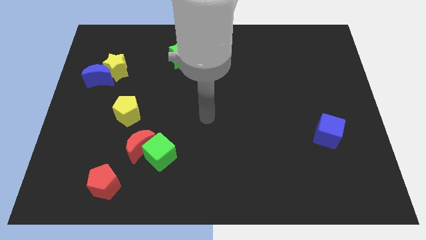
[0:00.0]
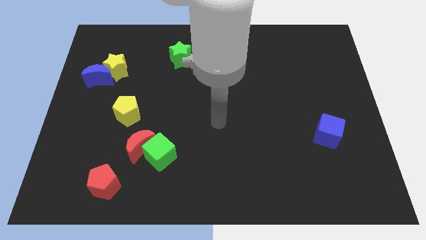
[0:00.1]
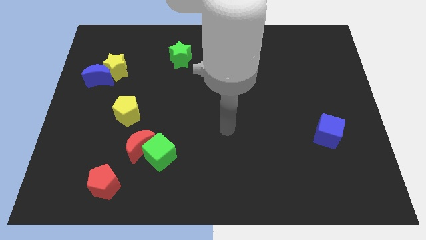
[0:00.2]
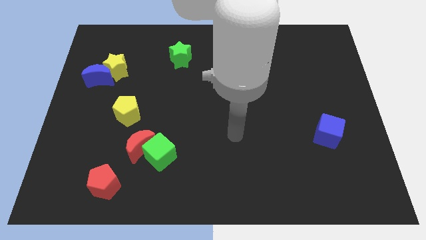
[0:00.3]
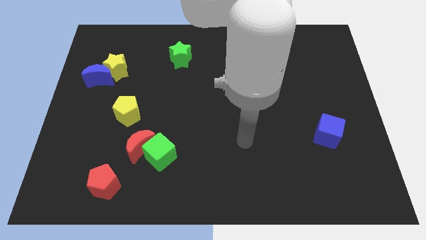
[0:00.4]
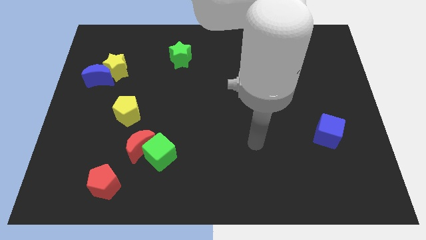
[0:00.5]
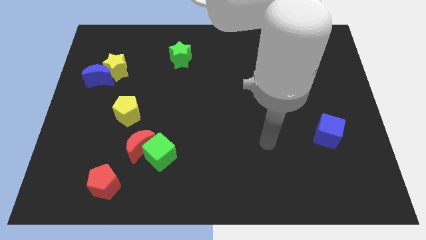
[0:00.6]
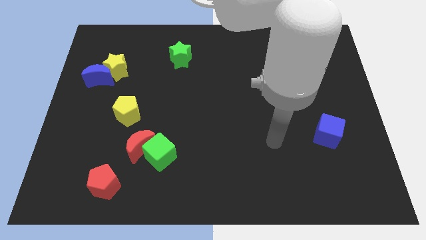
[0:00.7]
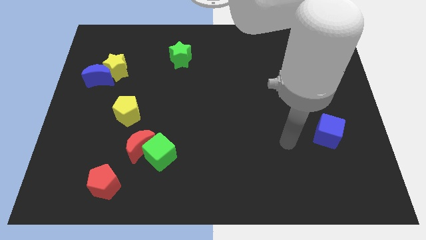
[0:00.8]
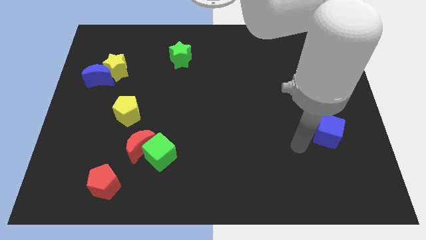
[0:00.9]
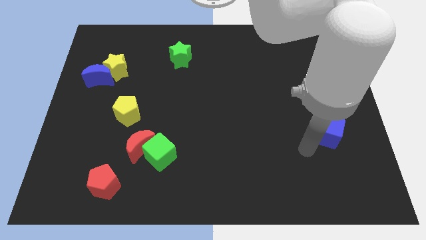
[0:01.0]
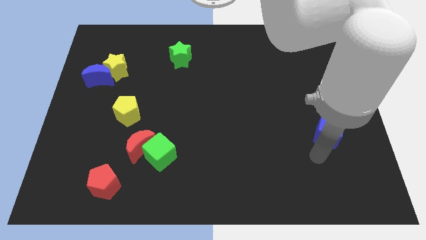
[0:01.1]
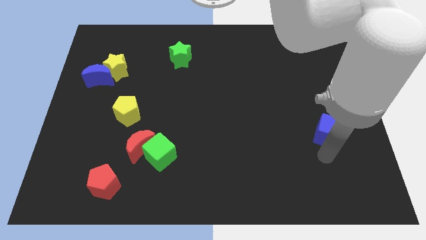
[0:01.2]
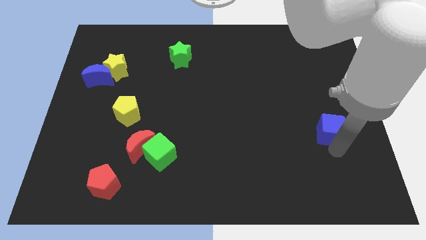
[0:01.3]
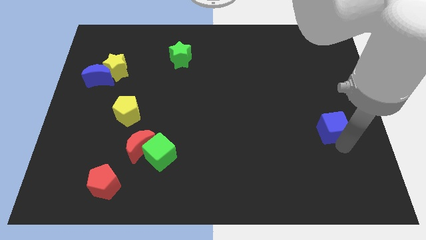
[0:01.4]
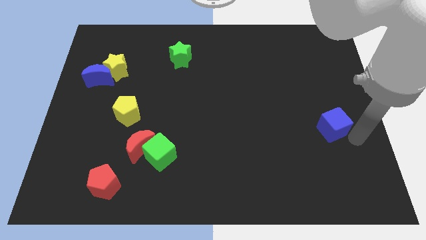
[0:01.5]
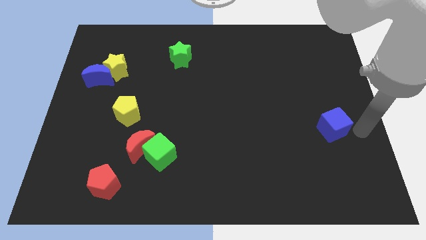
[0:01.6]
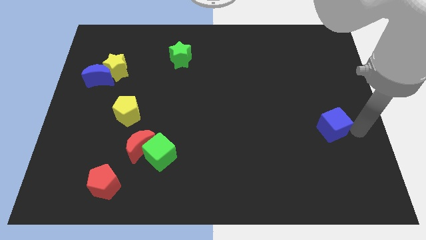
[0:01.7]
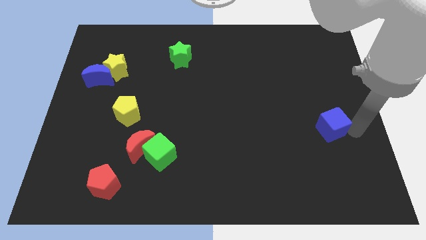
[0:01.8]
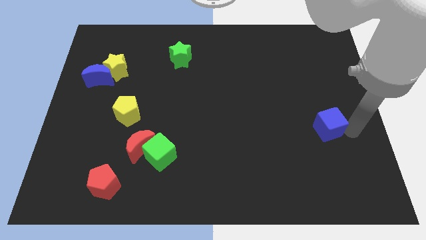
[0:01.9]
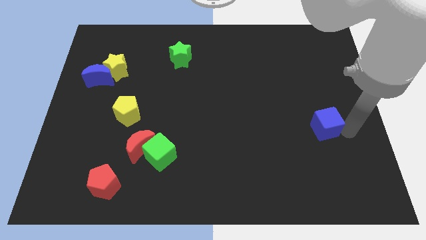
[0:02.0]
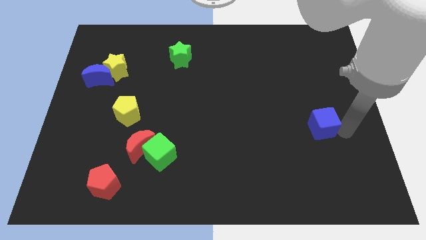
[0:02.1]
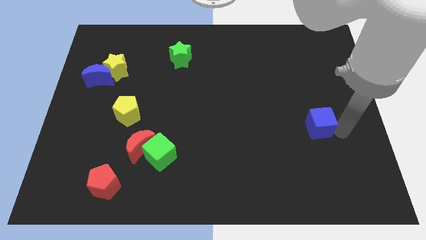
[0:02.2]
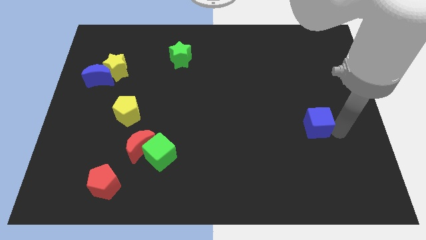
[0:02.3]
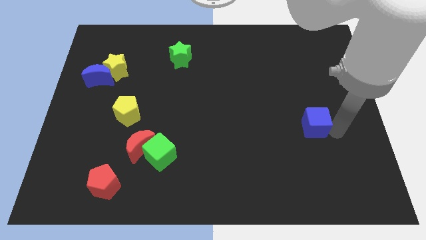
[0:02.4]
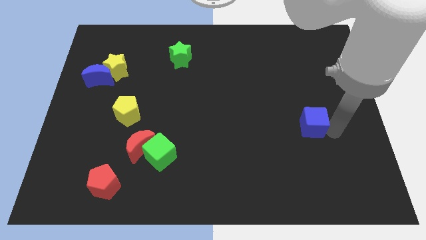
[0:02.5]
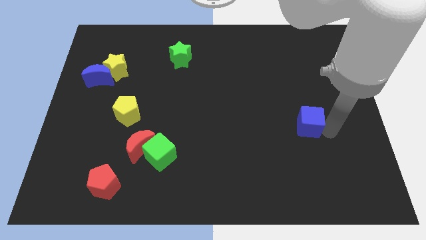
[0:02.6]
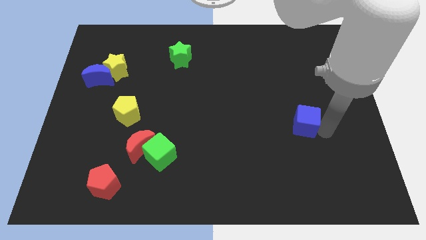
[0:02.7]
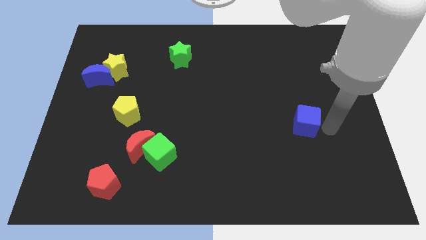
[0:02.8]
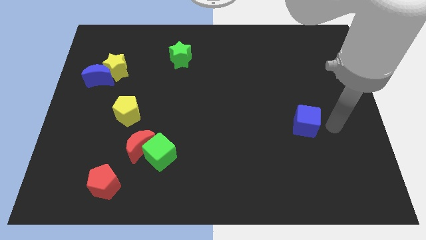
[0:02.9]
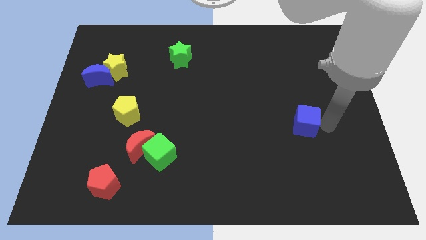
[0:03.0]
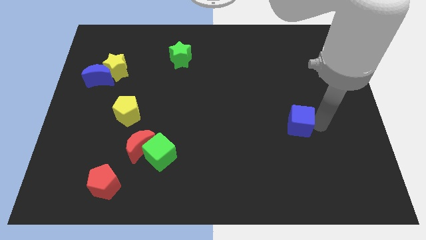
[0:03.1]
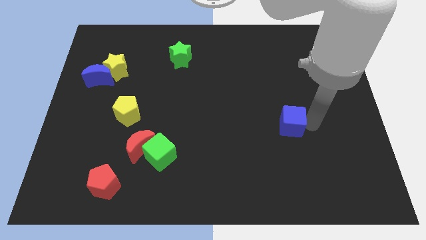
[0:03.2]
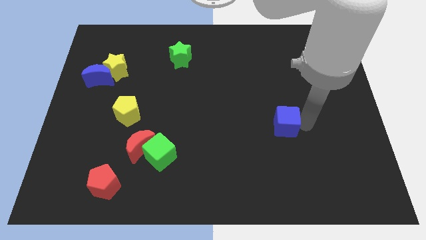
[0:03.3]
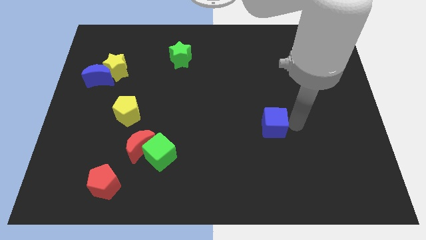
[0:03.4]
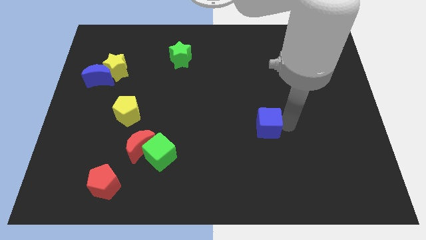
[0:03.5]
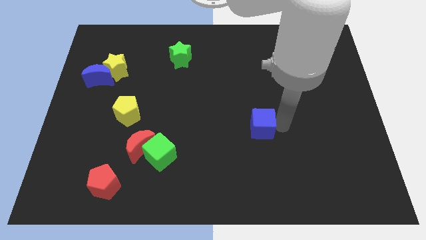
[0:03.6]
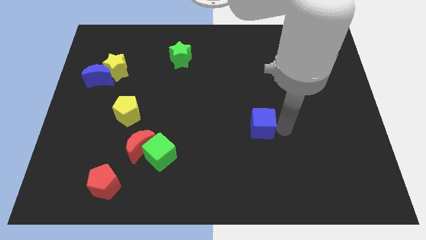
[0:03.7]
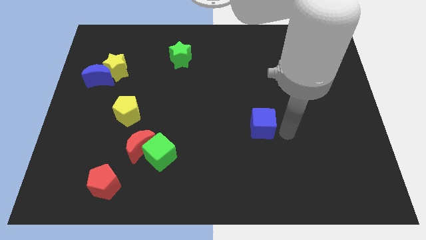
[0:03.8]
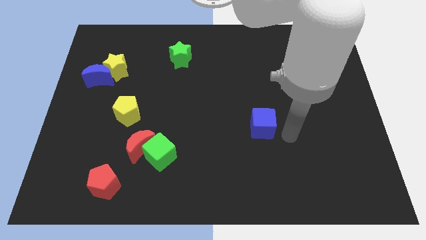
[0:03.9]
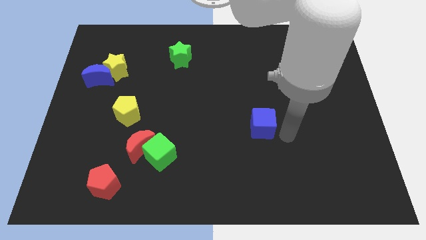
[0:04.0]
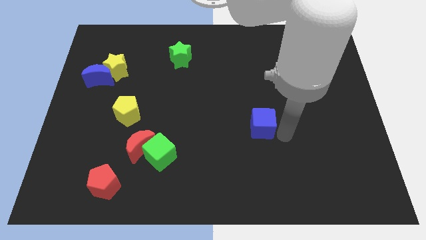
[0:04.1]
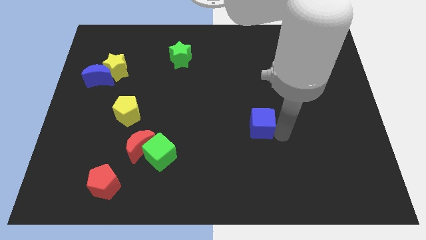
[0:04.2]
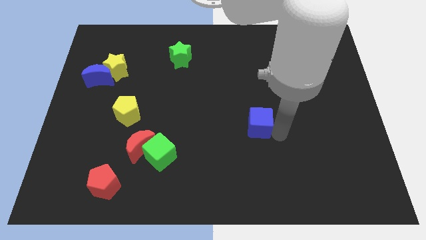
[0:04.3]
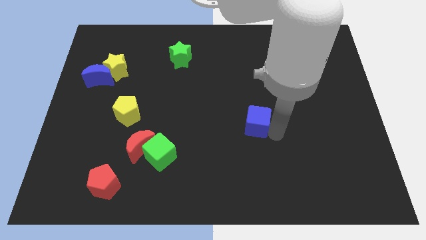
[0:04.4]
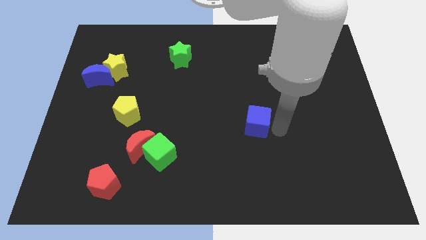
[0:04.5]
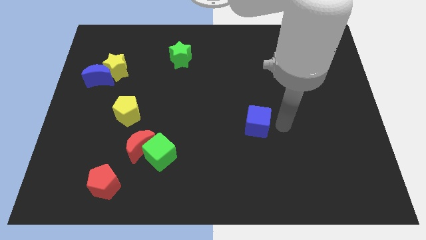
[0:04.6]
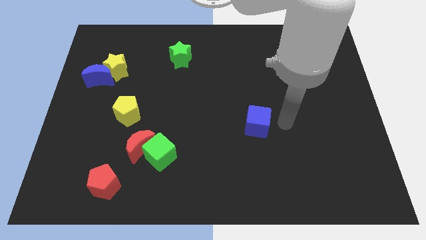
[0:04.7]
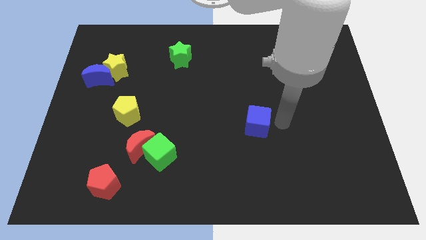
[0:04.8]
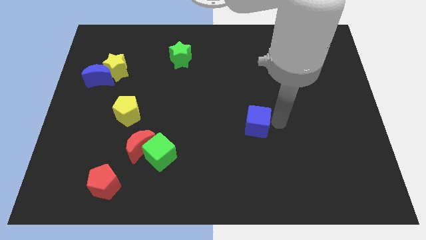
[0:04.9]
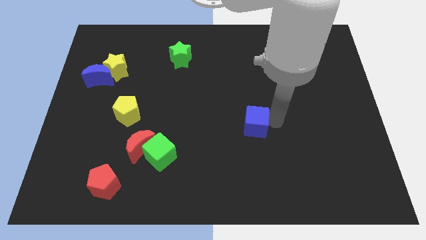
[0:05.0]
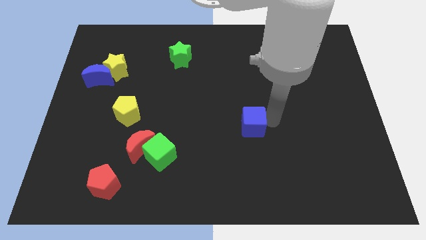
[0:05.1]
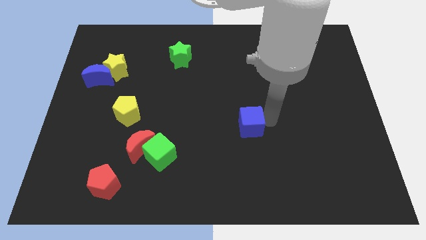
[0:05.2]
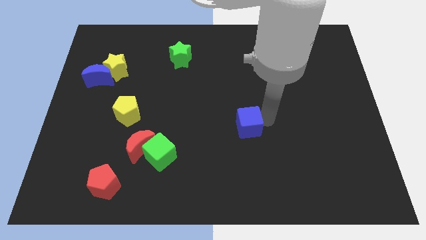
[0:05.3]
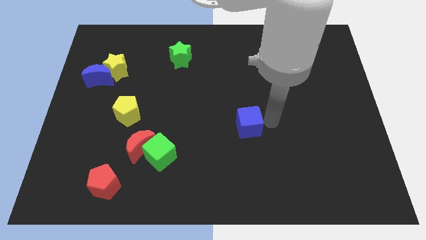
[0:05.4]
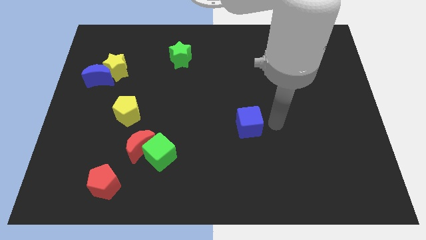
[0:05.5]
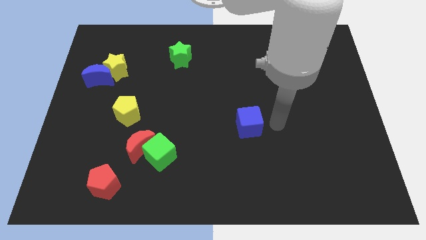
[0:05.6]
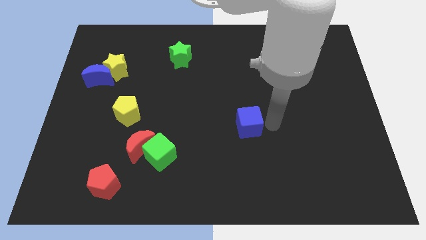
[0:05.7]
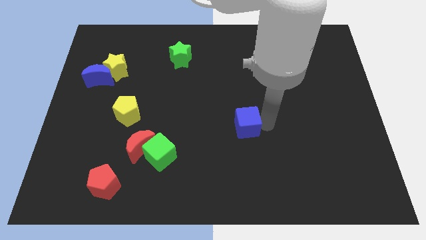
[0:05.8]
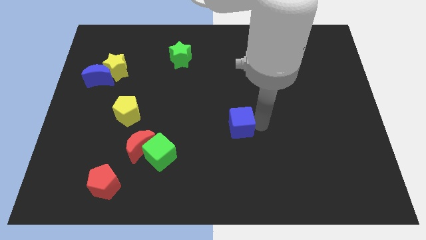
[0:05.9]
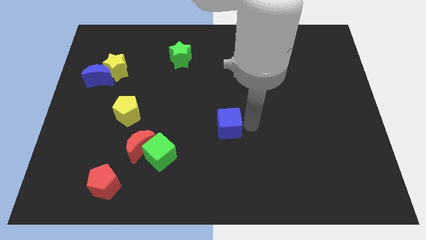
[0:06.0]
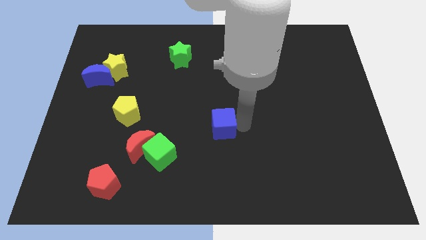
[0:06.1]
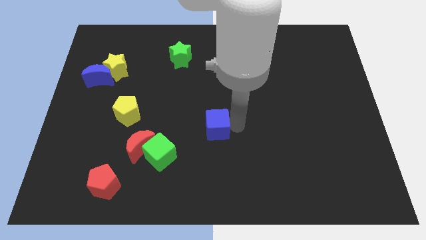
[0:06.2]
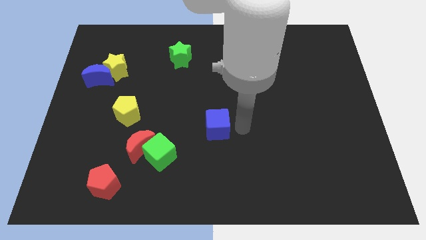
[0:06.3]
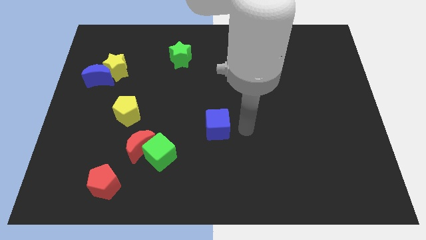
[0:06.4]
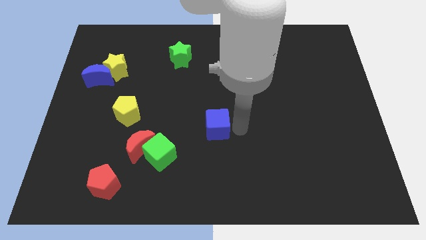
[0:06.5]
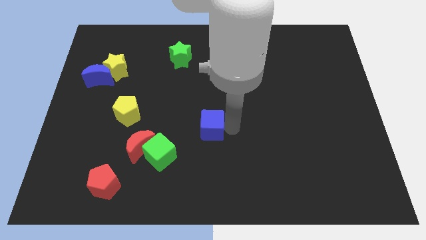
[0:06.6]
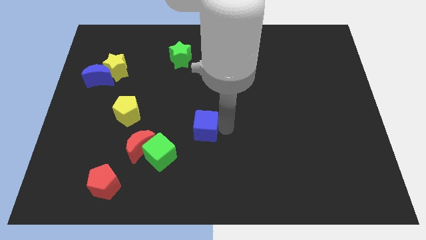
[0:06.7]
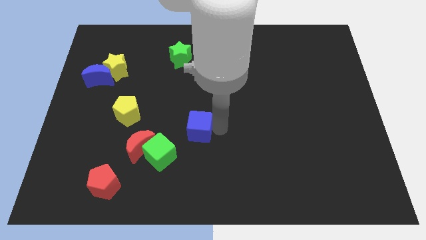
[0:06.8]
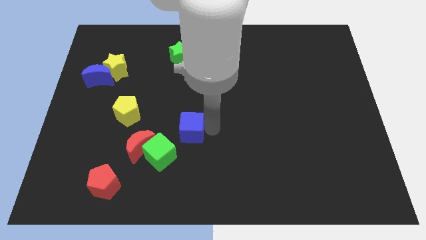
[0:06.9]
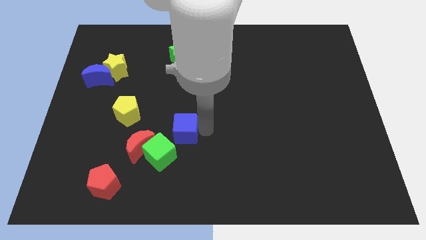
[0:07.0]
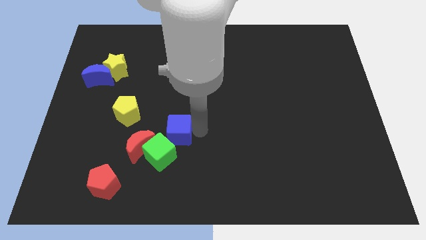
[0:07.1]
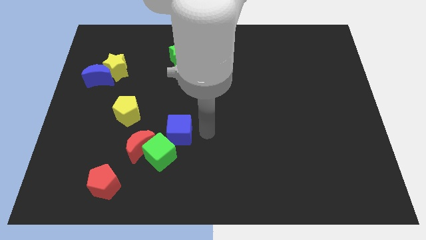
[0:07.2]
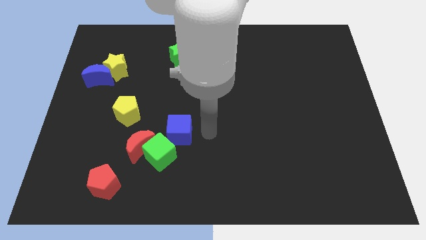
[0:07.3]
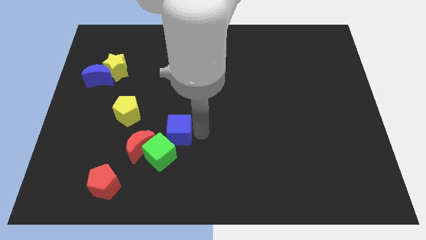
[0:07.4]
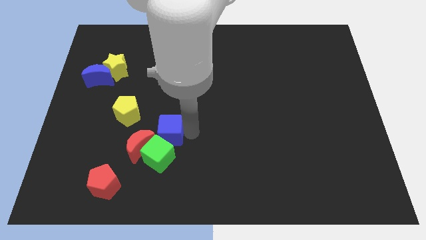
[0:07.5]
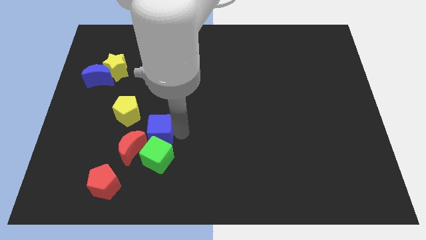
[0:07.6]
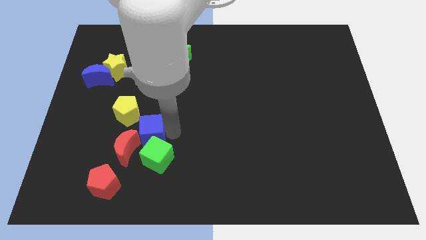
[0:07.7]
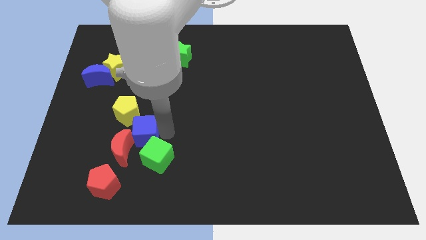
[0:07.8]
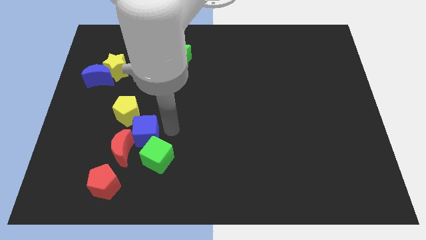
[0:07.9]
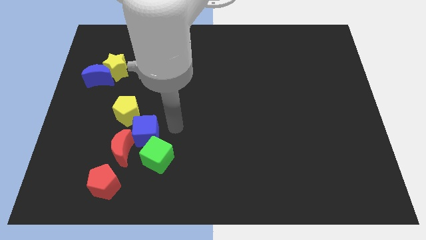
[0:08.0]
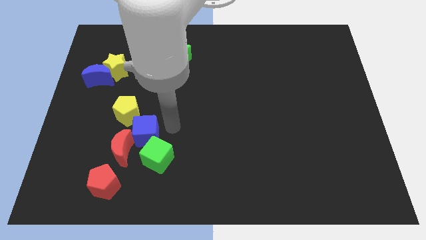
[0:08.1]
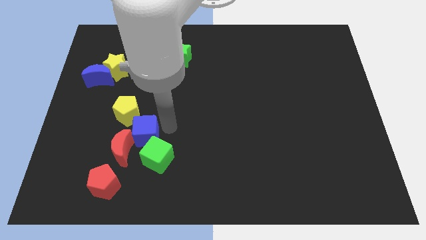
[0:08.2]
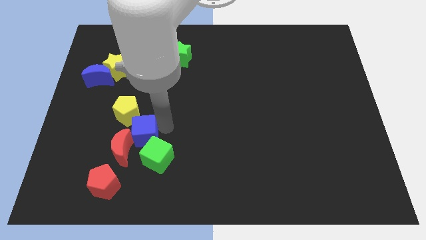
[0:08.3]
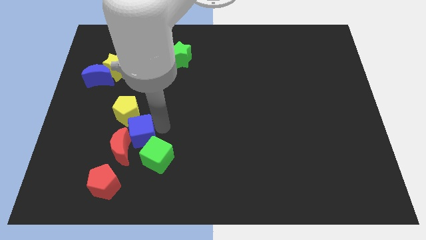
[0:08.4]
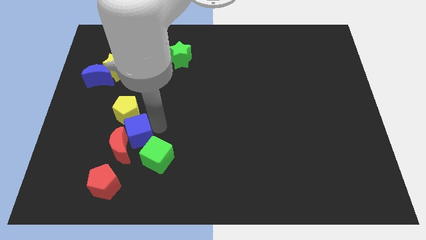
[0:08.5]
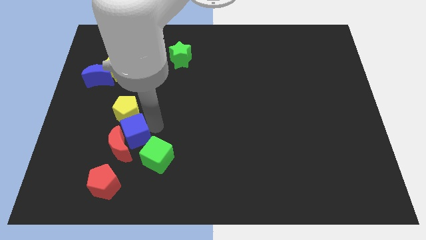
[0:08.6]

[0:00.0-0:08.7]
slide the blue cube to the top side of the red pentagon
